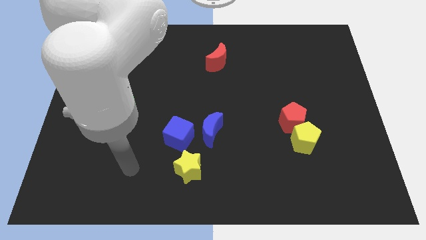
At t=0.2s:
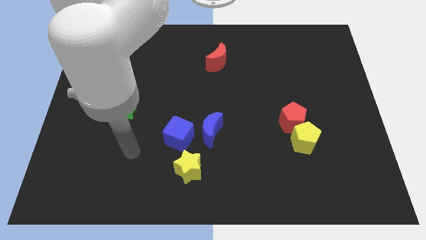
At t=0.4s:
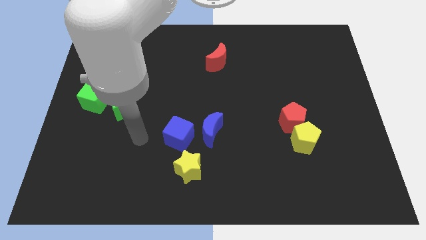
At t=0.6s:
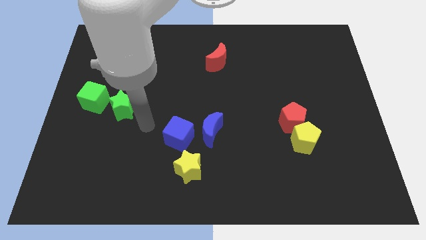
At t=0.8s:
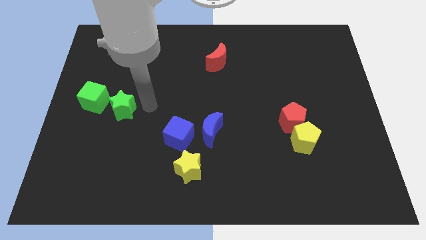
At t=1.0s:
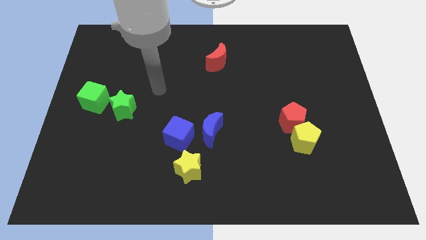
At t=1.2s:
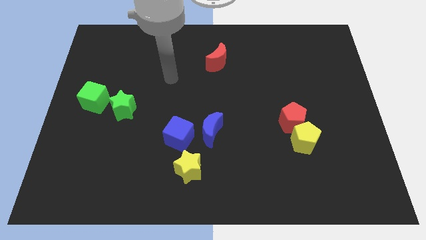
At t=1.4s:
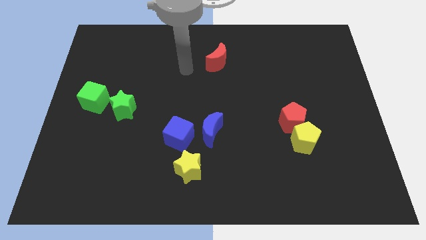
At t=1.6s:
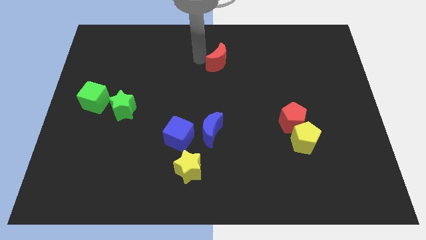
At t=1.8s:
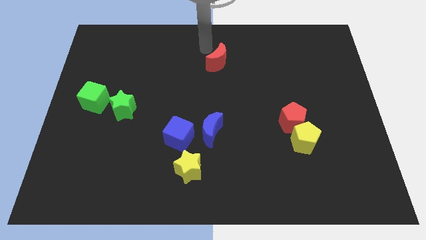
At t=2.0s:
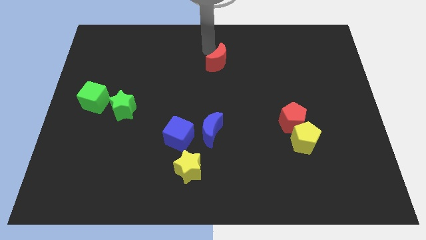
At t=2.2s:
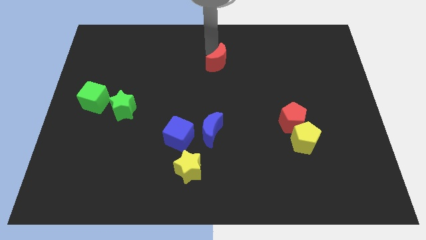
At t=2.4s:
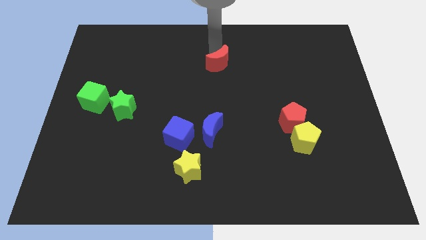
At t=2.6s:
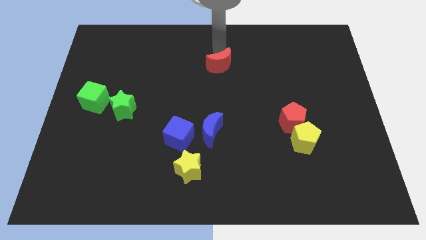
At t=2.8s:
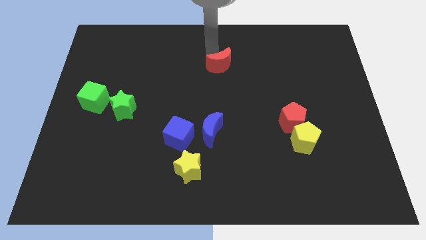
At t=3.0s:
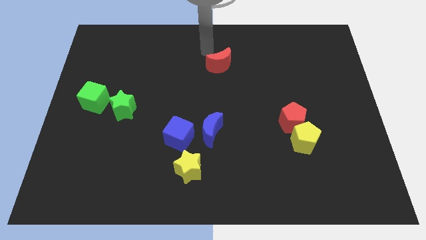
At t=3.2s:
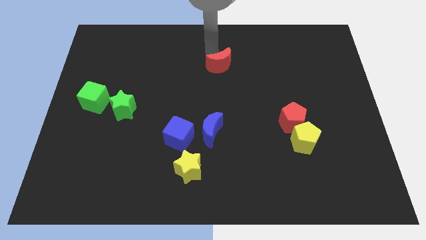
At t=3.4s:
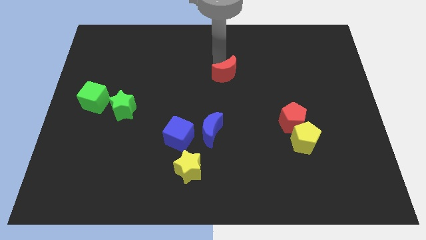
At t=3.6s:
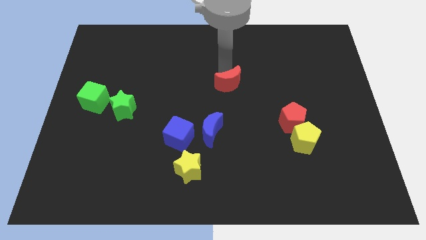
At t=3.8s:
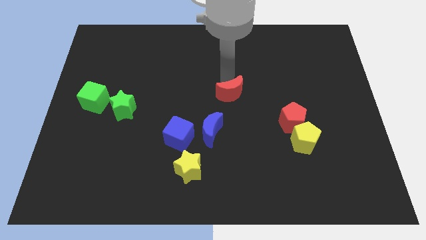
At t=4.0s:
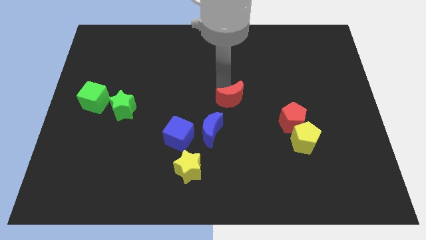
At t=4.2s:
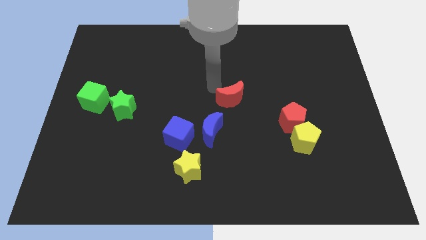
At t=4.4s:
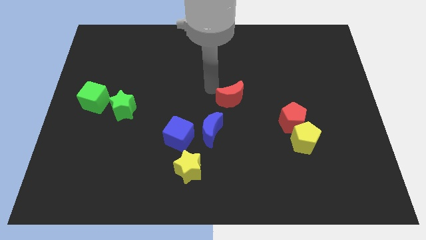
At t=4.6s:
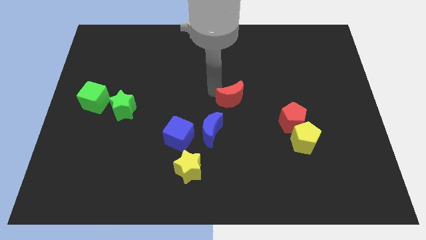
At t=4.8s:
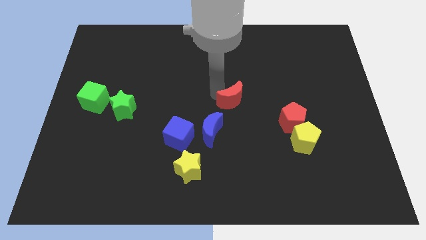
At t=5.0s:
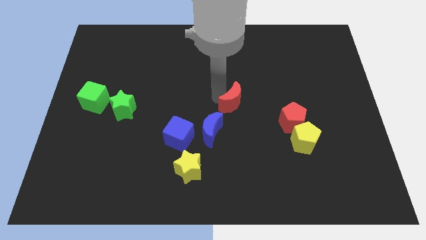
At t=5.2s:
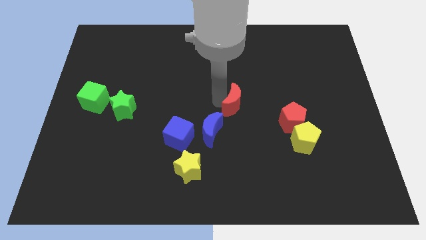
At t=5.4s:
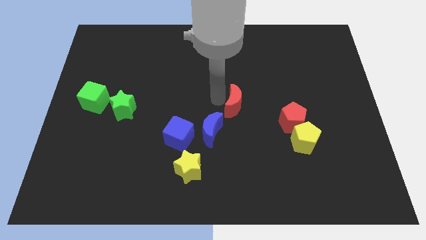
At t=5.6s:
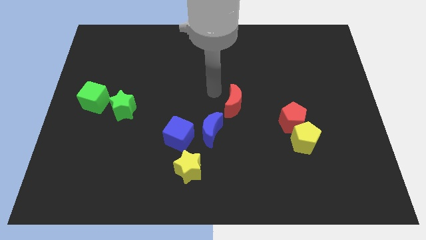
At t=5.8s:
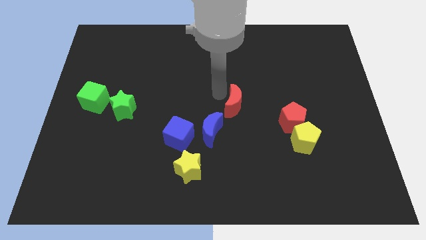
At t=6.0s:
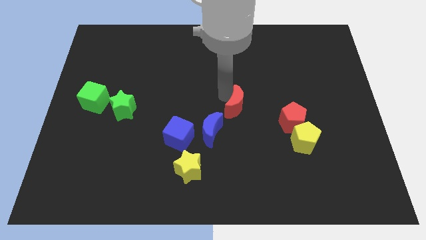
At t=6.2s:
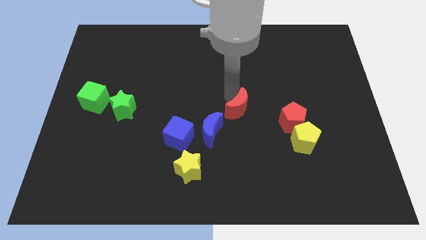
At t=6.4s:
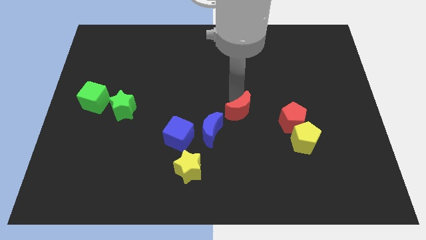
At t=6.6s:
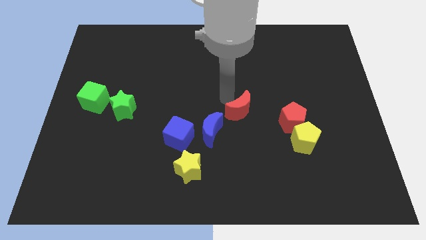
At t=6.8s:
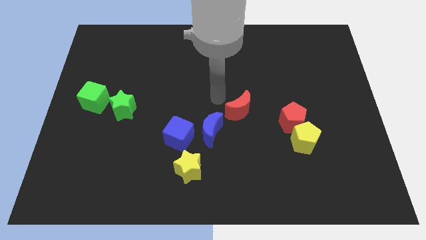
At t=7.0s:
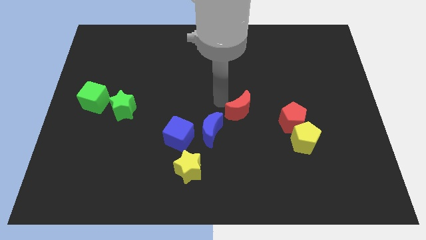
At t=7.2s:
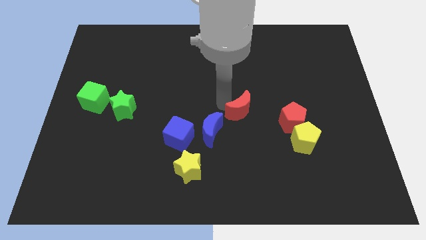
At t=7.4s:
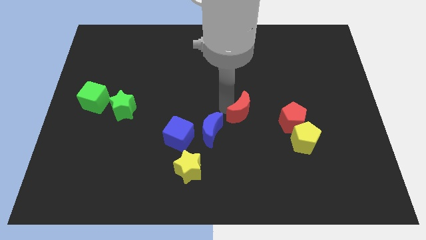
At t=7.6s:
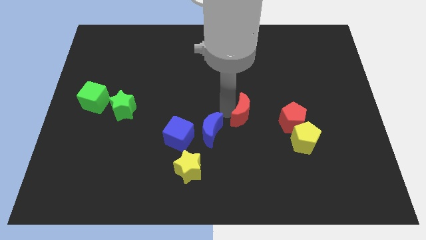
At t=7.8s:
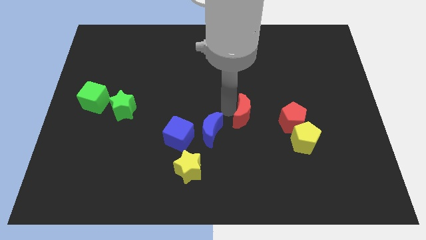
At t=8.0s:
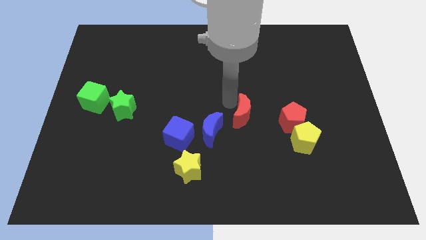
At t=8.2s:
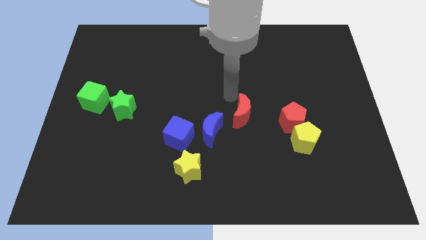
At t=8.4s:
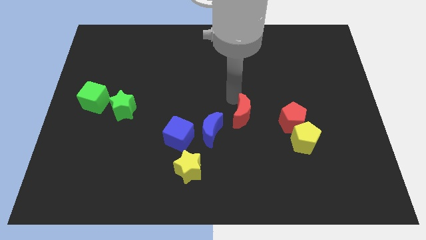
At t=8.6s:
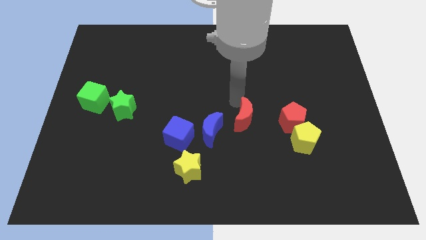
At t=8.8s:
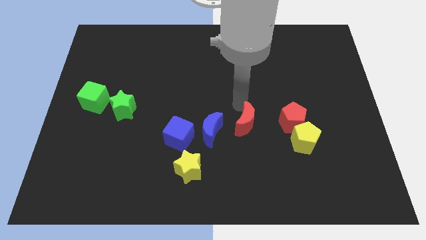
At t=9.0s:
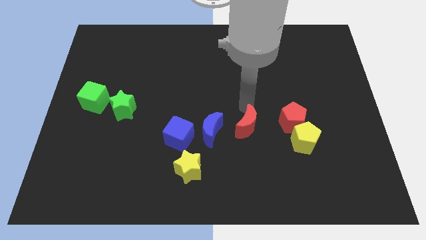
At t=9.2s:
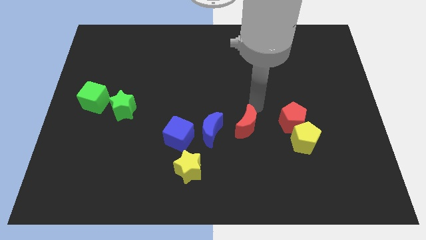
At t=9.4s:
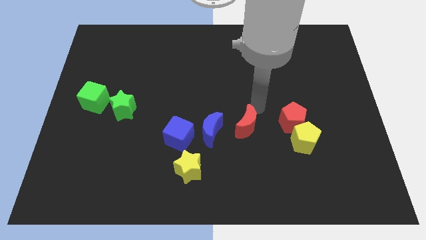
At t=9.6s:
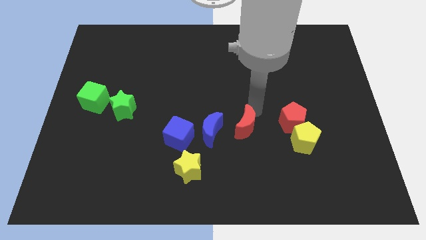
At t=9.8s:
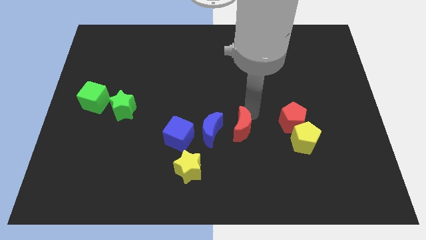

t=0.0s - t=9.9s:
push the red moon downwards

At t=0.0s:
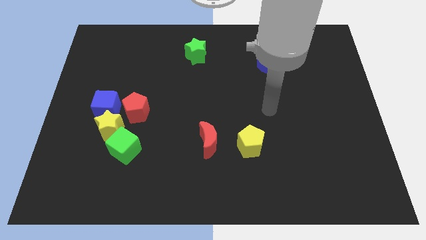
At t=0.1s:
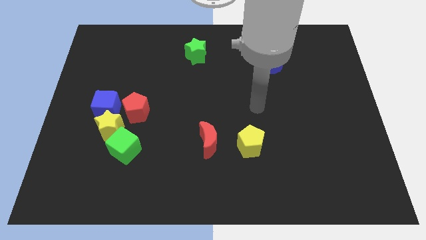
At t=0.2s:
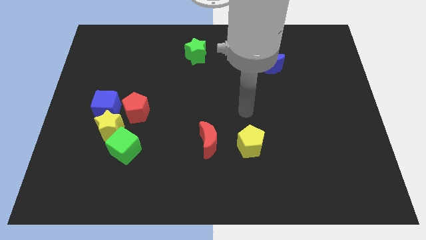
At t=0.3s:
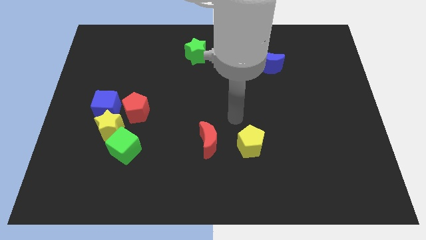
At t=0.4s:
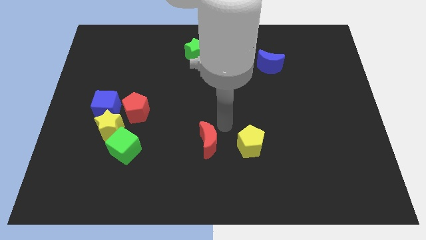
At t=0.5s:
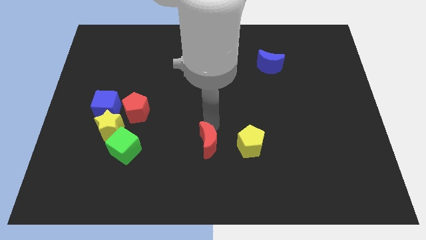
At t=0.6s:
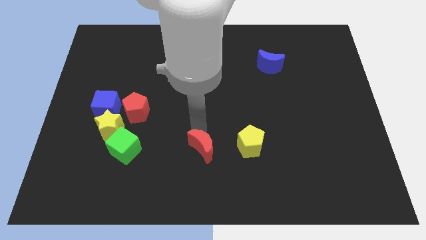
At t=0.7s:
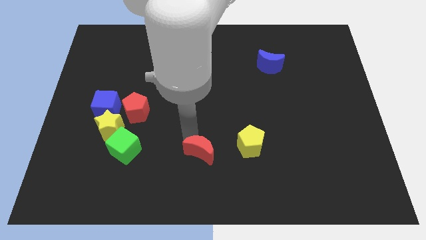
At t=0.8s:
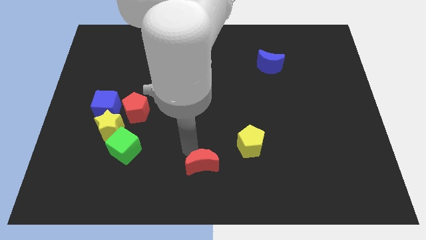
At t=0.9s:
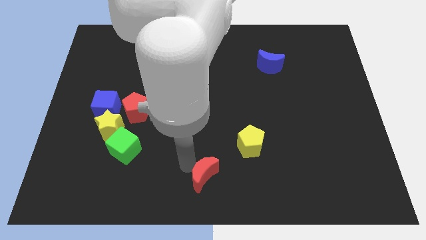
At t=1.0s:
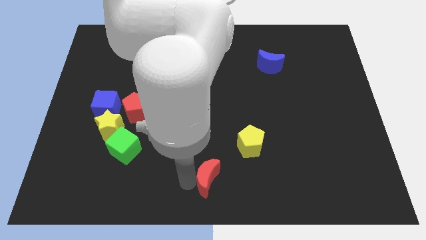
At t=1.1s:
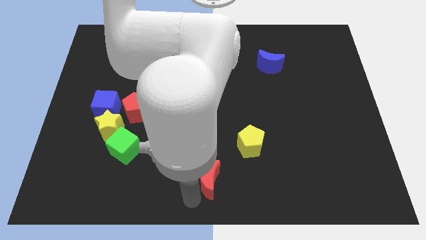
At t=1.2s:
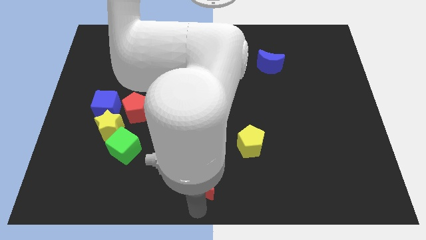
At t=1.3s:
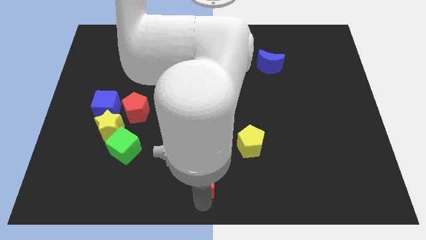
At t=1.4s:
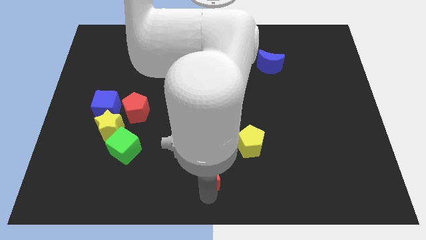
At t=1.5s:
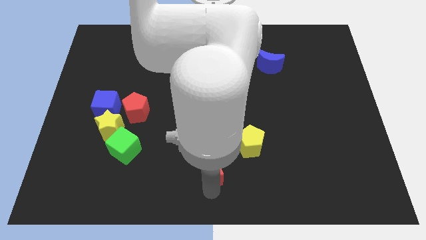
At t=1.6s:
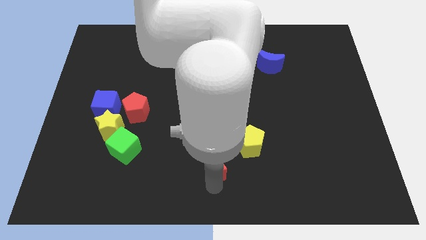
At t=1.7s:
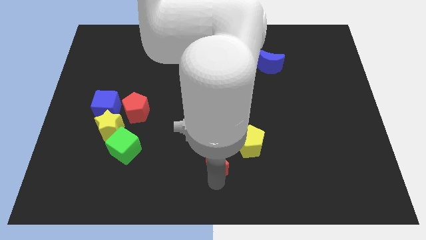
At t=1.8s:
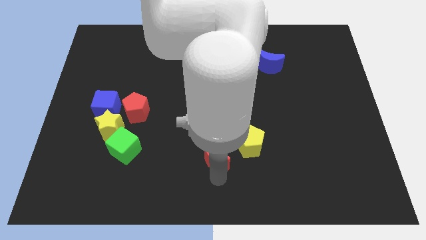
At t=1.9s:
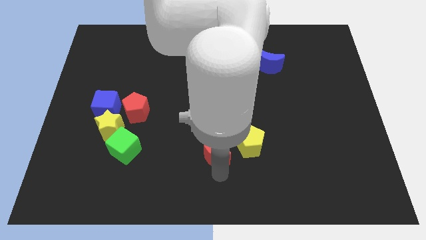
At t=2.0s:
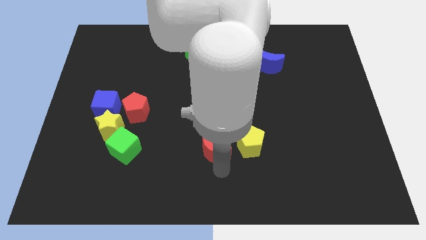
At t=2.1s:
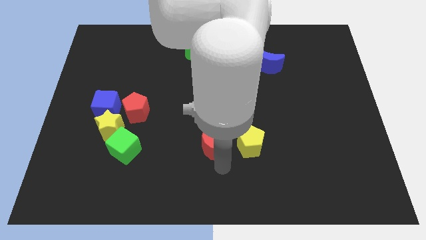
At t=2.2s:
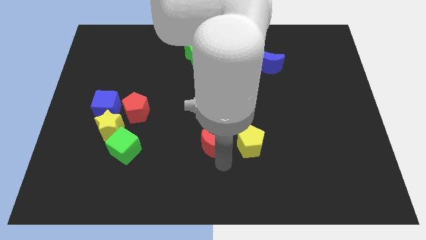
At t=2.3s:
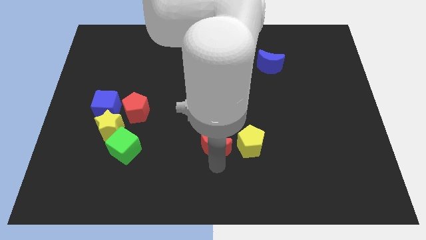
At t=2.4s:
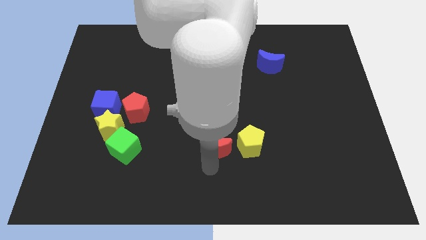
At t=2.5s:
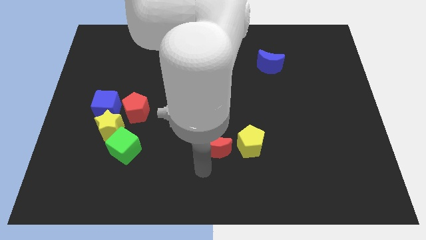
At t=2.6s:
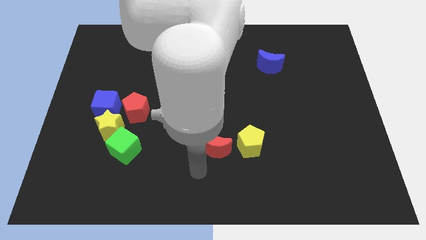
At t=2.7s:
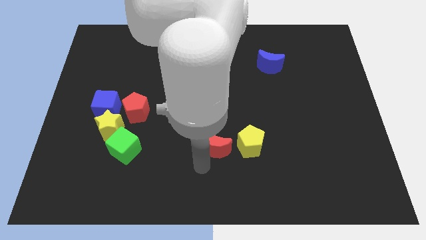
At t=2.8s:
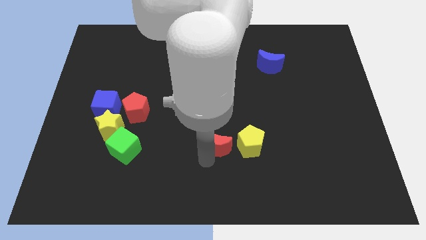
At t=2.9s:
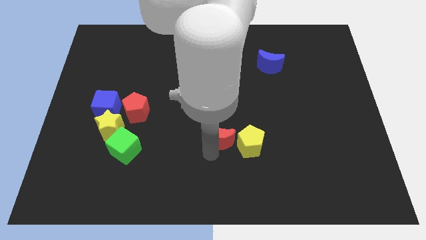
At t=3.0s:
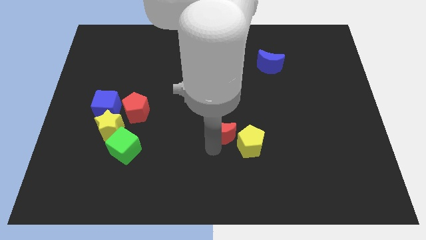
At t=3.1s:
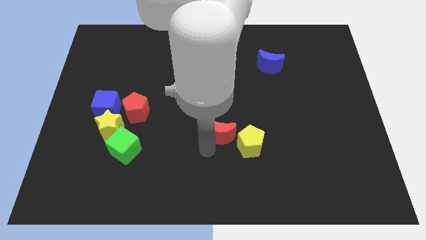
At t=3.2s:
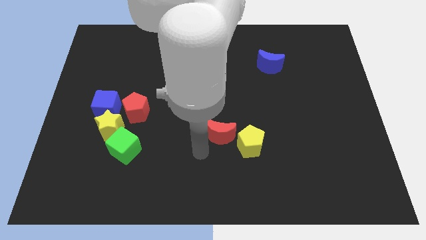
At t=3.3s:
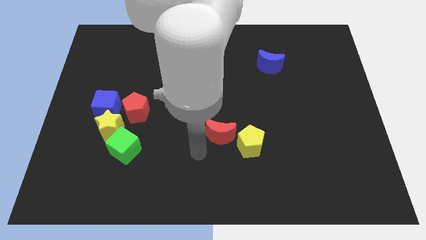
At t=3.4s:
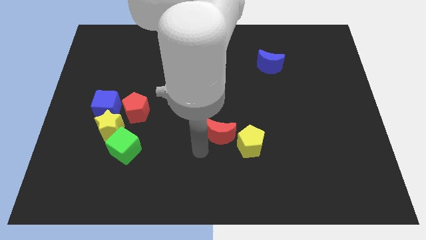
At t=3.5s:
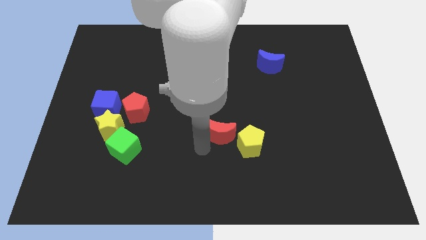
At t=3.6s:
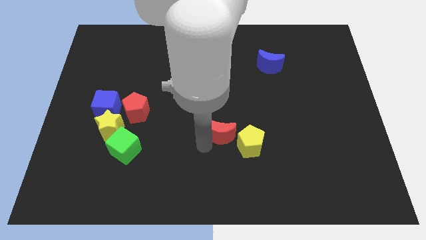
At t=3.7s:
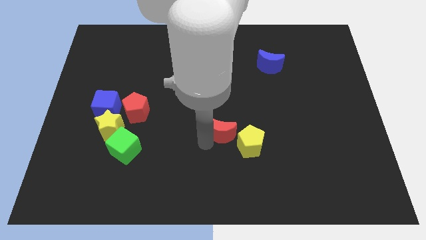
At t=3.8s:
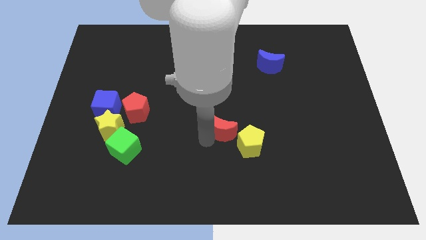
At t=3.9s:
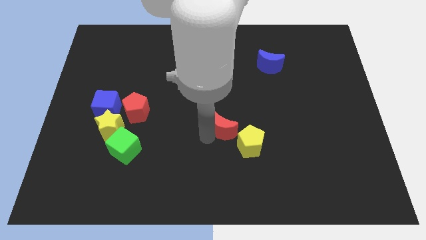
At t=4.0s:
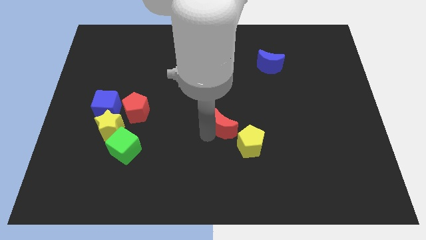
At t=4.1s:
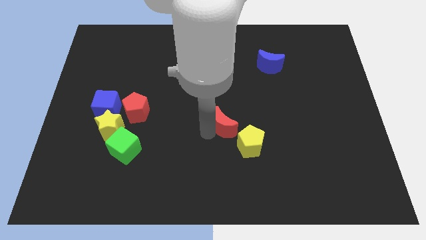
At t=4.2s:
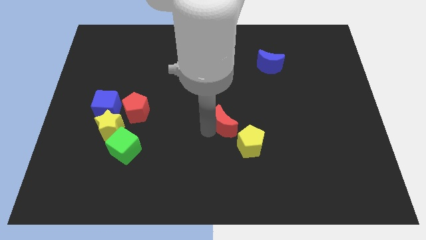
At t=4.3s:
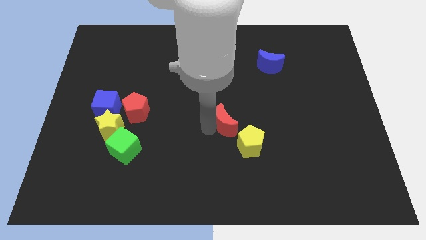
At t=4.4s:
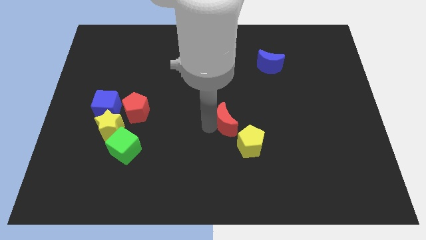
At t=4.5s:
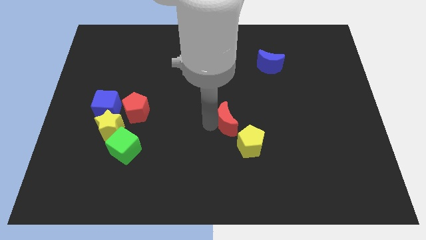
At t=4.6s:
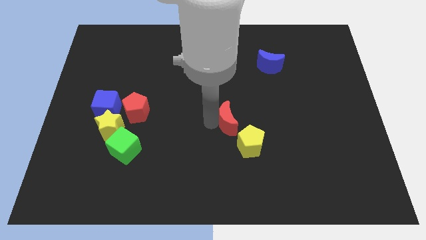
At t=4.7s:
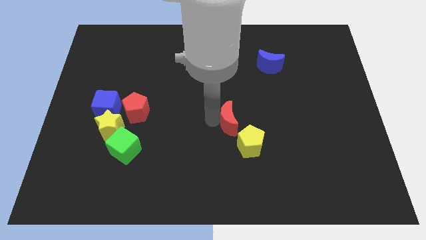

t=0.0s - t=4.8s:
move the red moon up and right a bit
